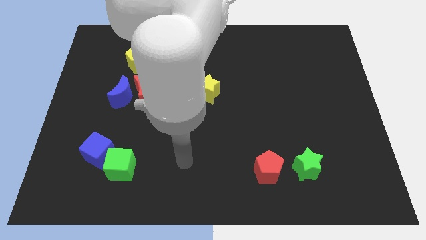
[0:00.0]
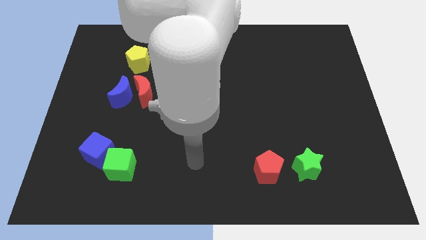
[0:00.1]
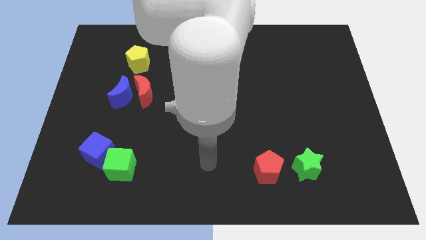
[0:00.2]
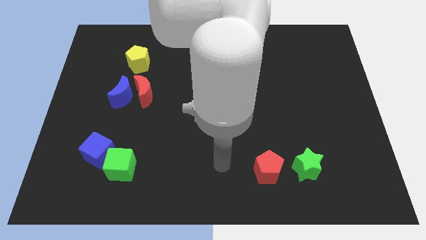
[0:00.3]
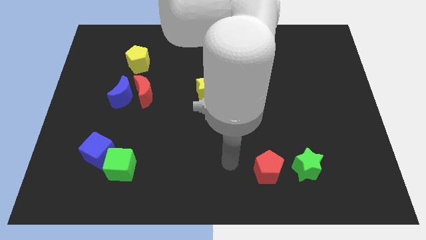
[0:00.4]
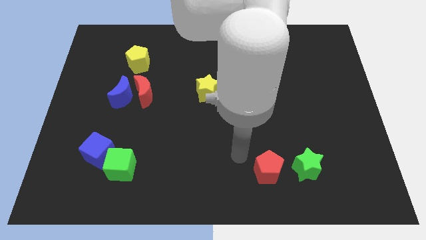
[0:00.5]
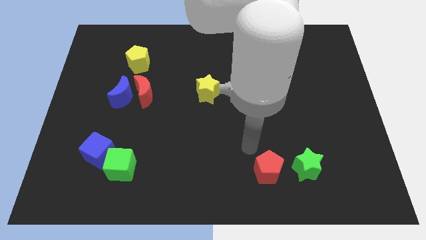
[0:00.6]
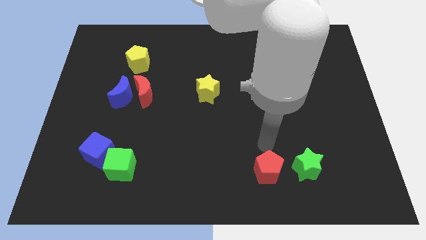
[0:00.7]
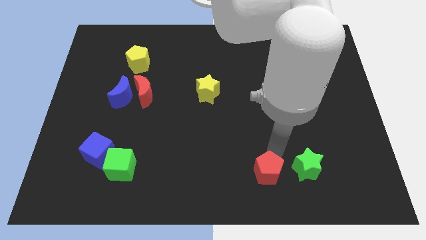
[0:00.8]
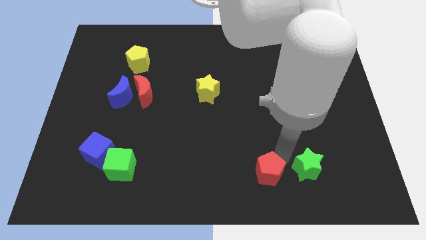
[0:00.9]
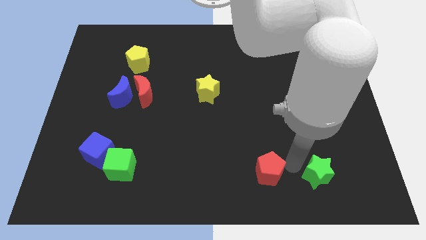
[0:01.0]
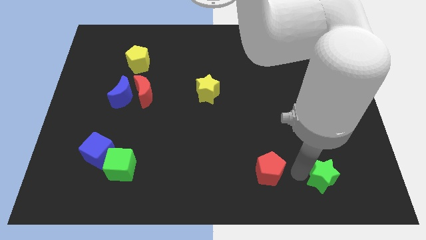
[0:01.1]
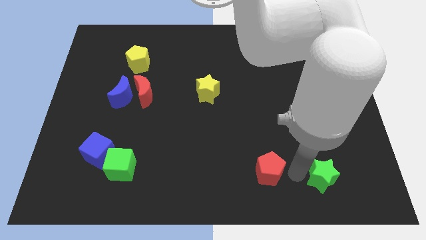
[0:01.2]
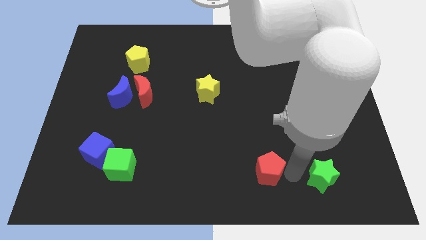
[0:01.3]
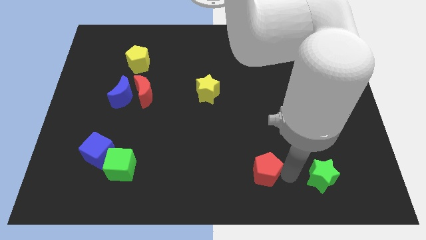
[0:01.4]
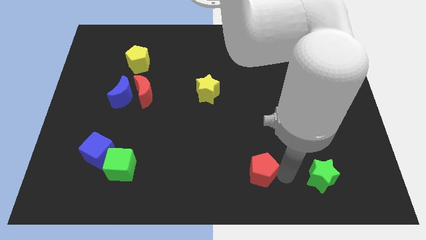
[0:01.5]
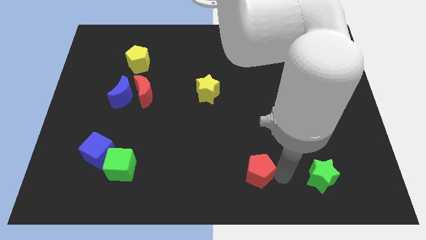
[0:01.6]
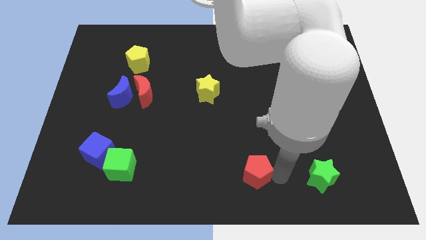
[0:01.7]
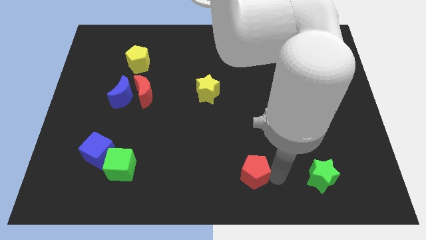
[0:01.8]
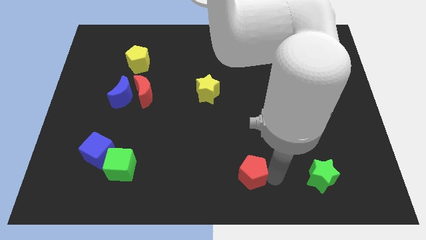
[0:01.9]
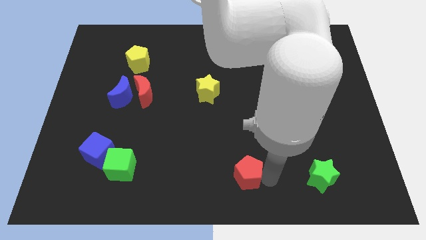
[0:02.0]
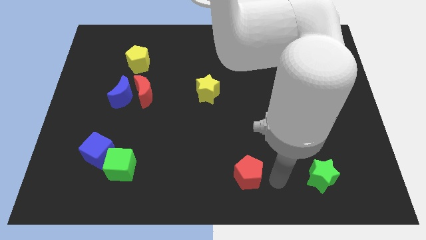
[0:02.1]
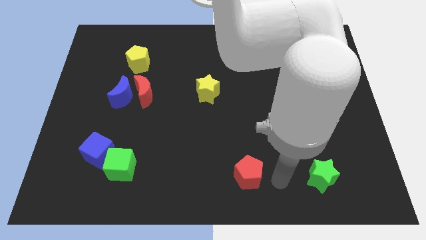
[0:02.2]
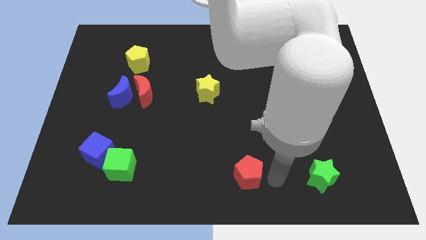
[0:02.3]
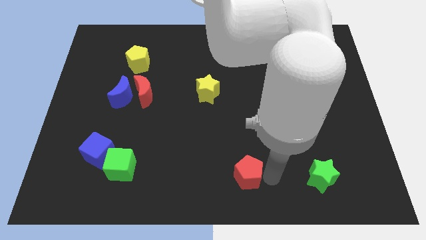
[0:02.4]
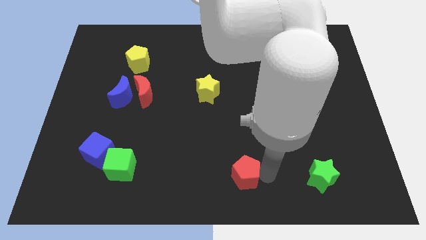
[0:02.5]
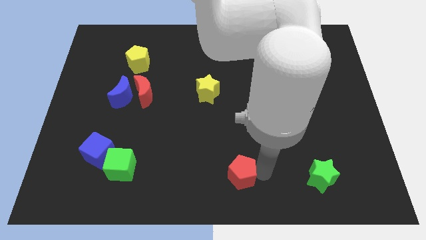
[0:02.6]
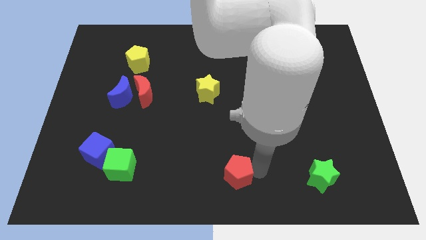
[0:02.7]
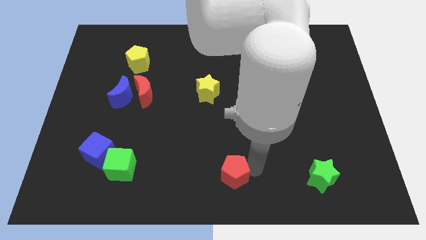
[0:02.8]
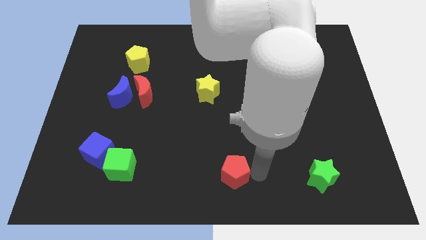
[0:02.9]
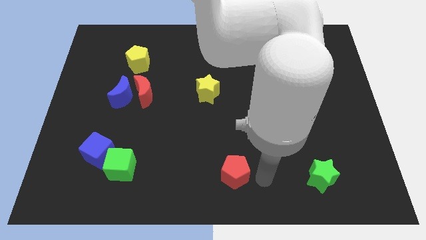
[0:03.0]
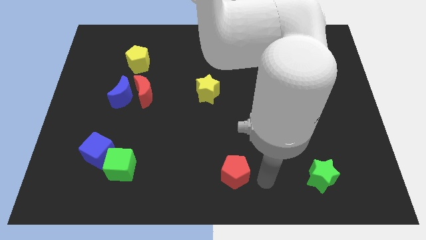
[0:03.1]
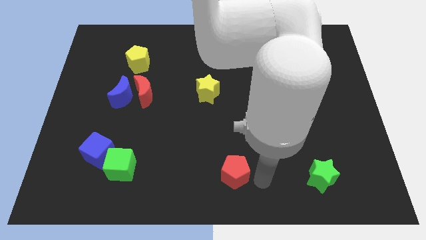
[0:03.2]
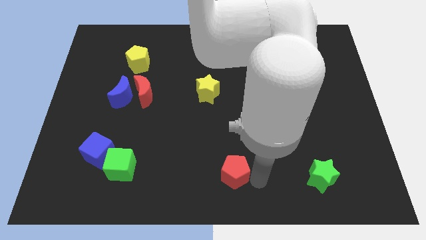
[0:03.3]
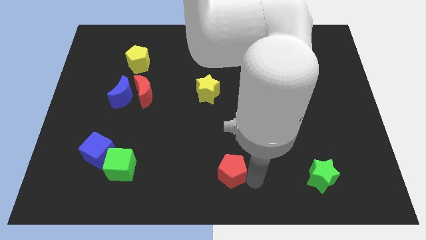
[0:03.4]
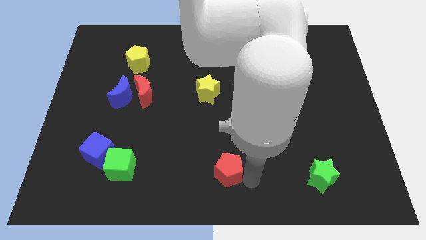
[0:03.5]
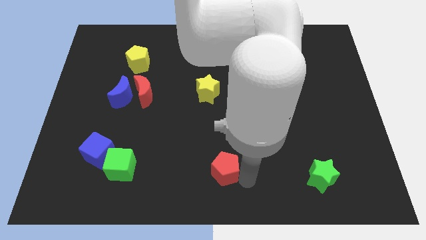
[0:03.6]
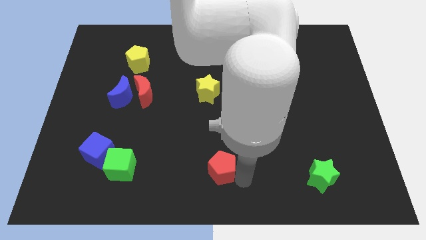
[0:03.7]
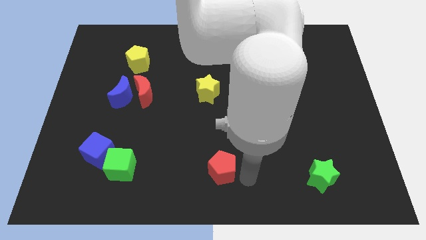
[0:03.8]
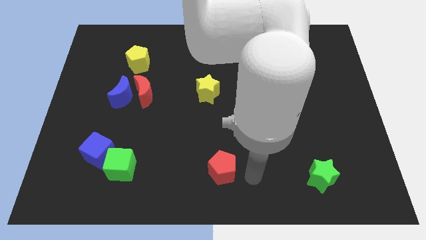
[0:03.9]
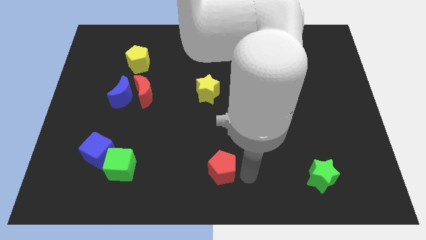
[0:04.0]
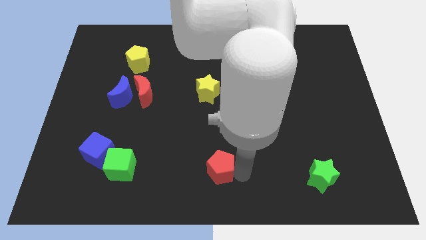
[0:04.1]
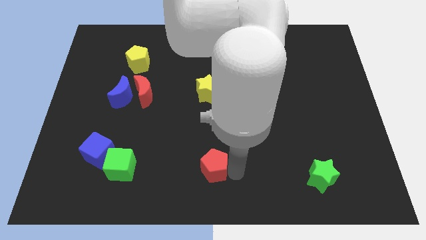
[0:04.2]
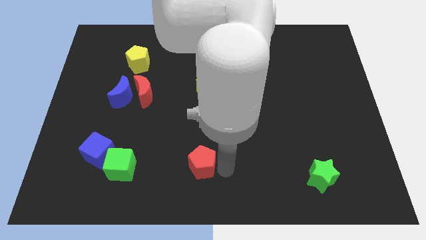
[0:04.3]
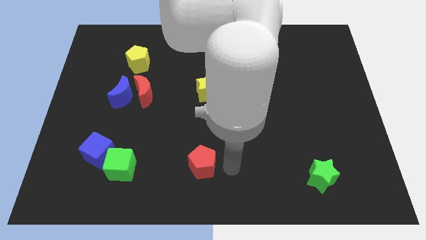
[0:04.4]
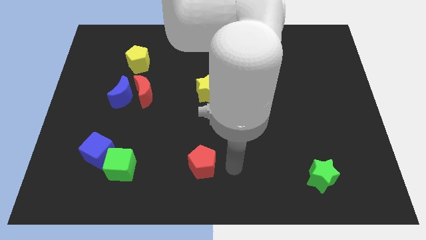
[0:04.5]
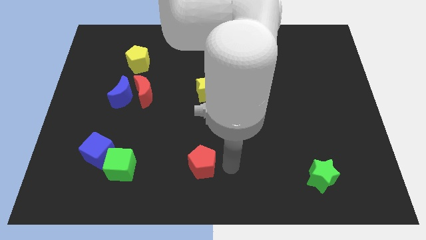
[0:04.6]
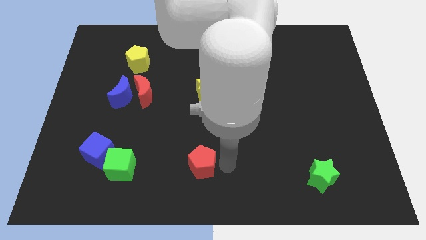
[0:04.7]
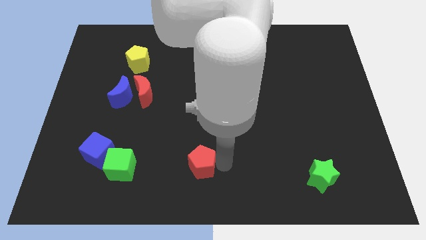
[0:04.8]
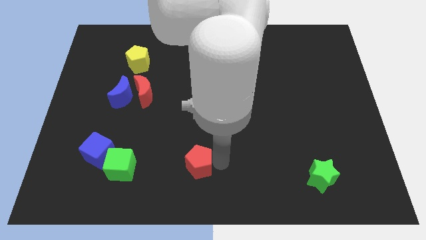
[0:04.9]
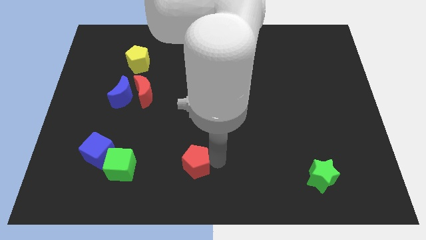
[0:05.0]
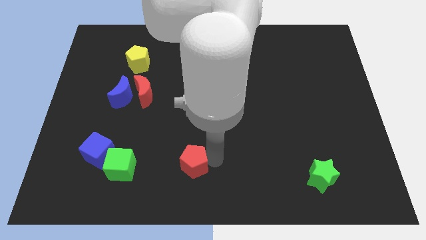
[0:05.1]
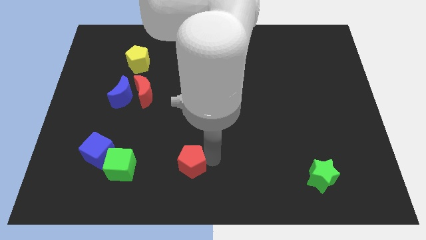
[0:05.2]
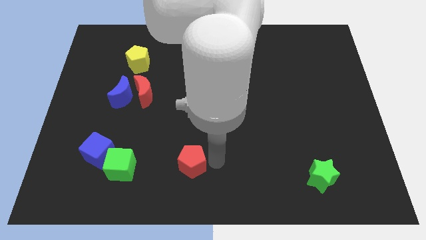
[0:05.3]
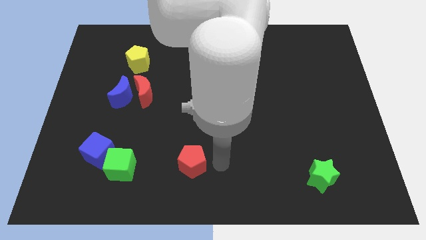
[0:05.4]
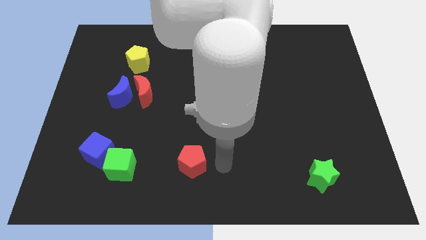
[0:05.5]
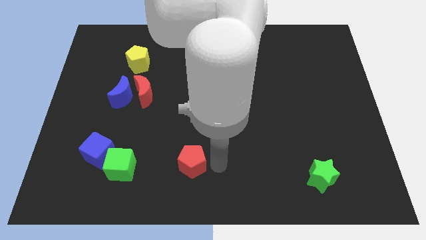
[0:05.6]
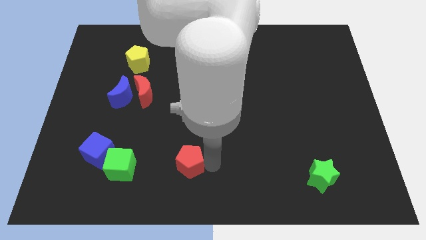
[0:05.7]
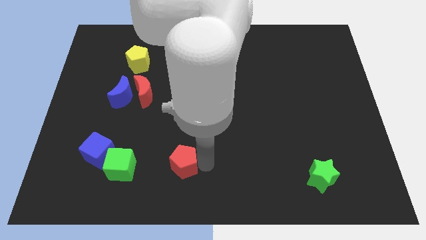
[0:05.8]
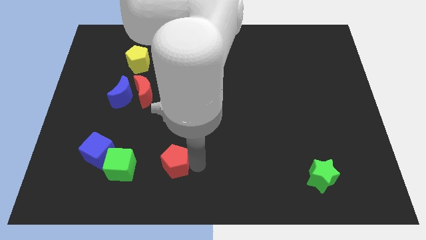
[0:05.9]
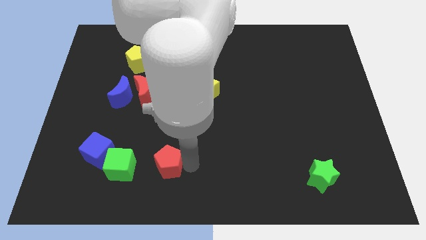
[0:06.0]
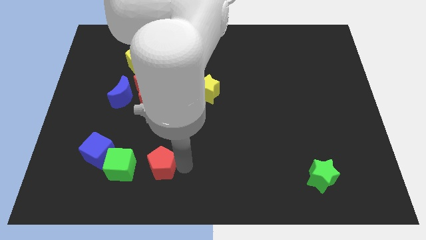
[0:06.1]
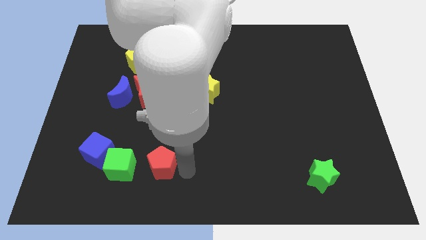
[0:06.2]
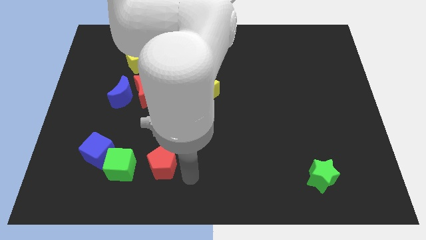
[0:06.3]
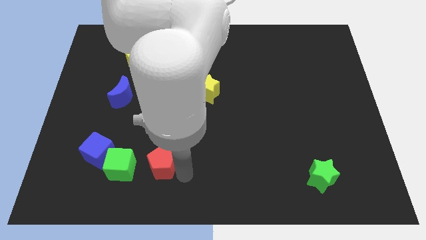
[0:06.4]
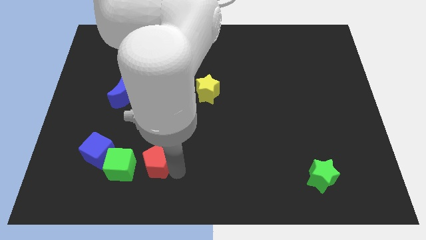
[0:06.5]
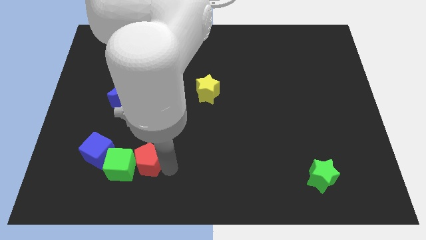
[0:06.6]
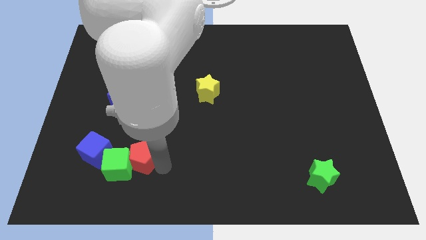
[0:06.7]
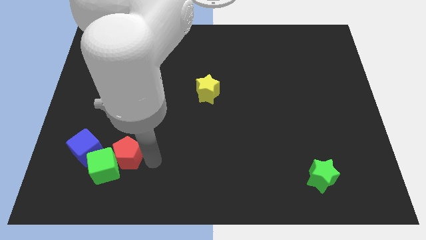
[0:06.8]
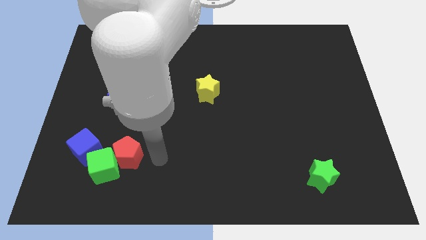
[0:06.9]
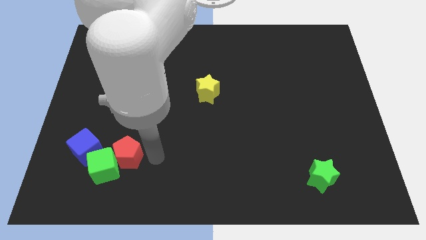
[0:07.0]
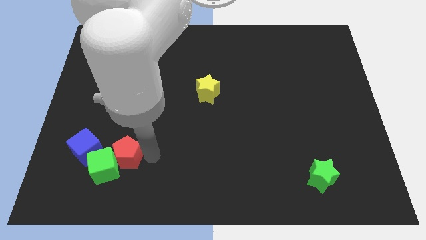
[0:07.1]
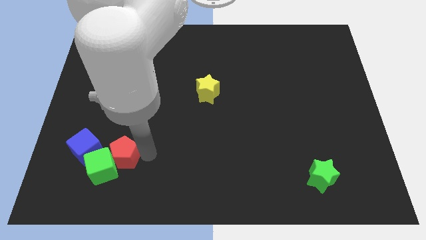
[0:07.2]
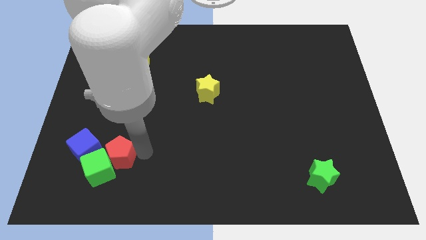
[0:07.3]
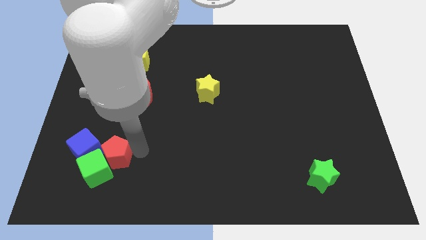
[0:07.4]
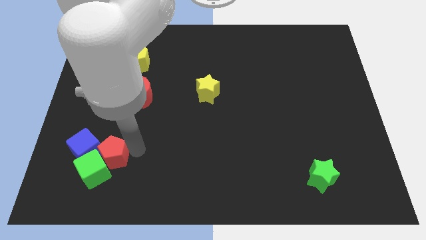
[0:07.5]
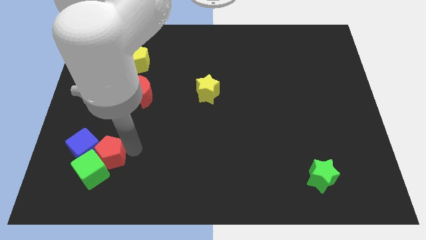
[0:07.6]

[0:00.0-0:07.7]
slide the red pentagon next to the blue cube
